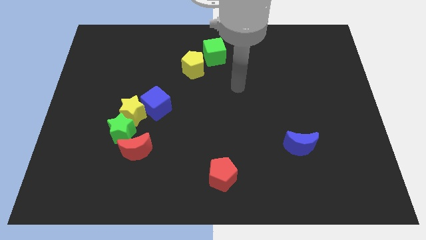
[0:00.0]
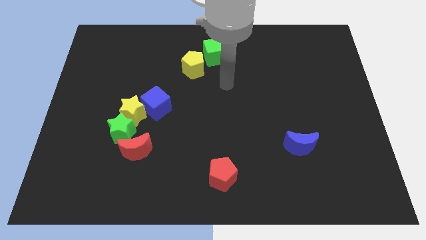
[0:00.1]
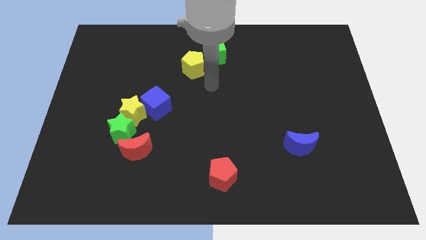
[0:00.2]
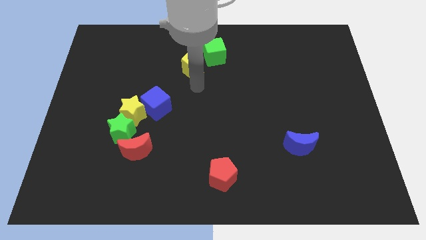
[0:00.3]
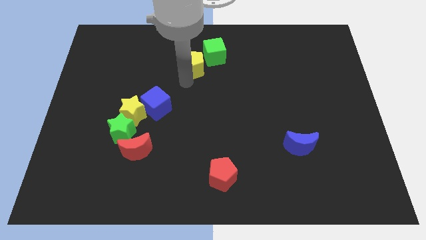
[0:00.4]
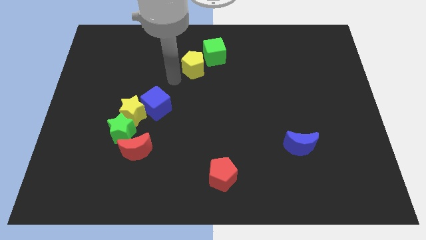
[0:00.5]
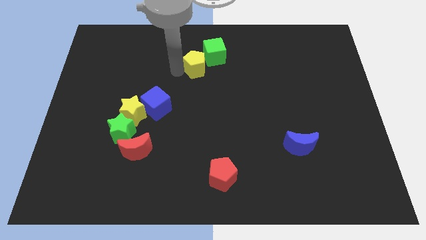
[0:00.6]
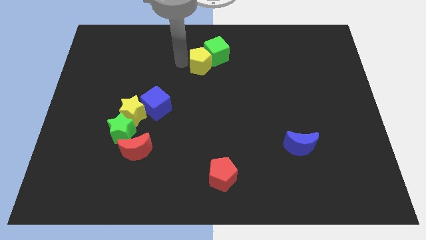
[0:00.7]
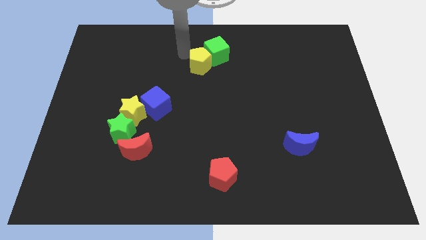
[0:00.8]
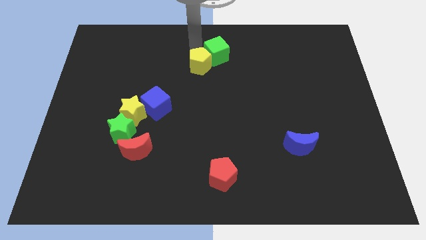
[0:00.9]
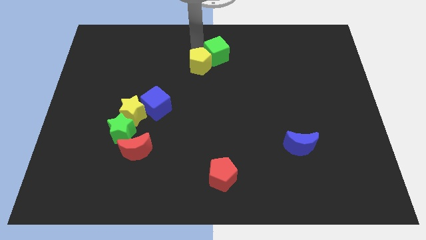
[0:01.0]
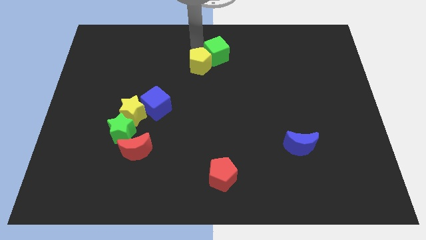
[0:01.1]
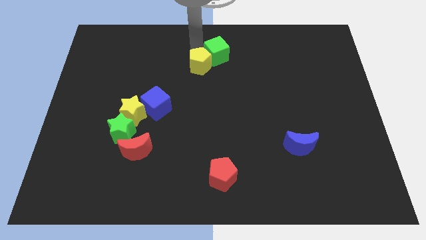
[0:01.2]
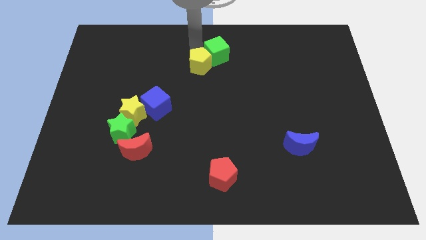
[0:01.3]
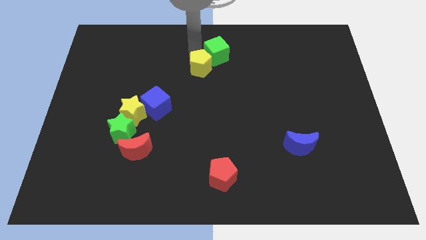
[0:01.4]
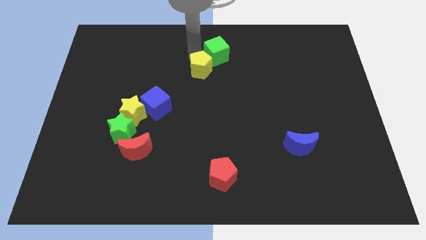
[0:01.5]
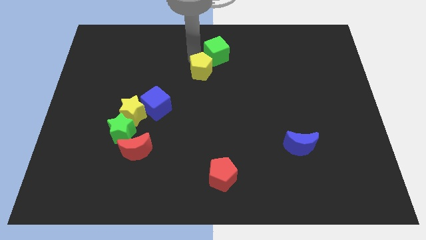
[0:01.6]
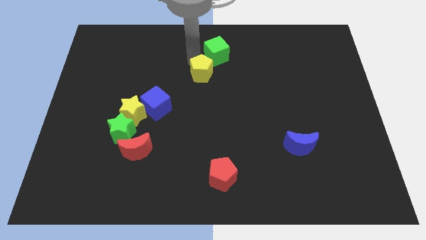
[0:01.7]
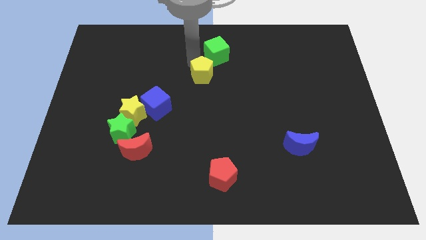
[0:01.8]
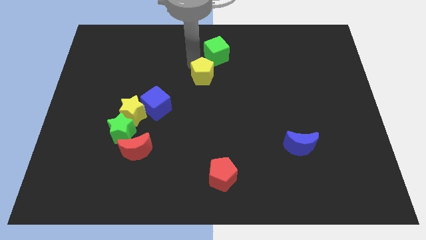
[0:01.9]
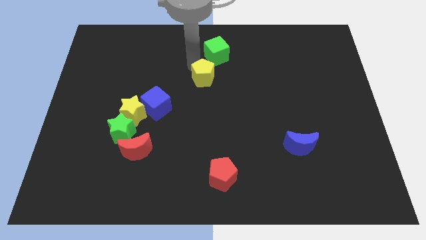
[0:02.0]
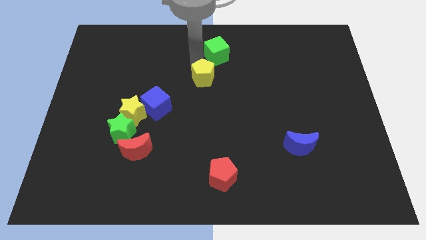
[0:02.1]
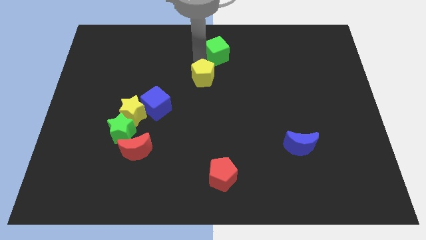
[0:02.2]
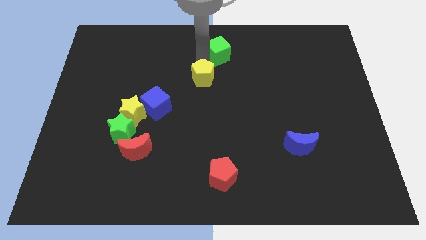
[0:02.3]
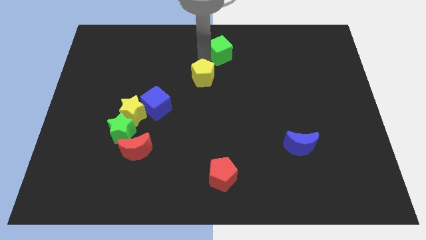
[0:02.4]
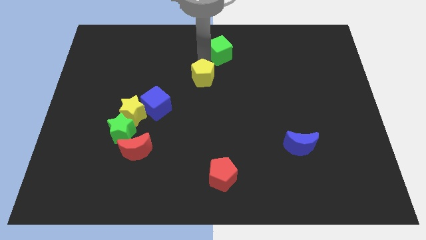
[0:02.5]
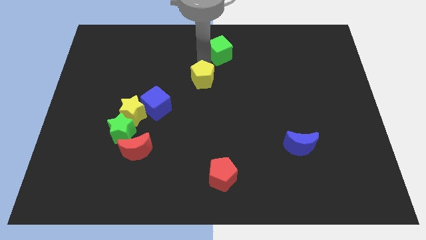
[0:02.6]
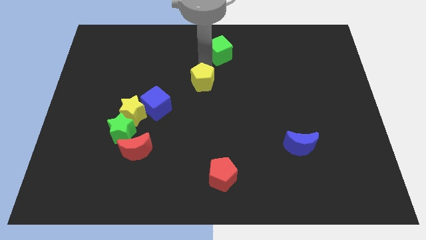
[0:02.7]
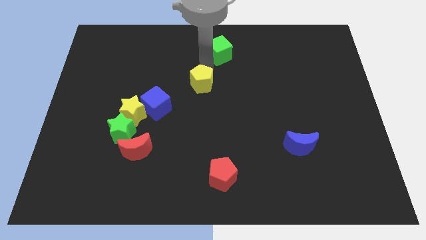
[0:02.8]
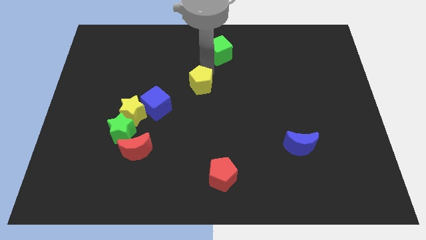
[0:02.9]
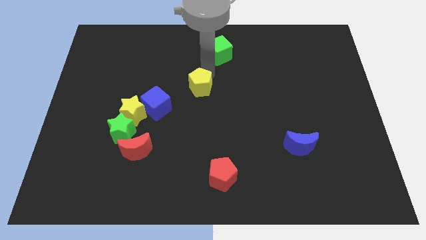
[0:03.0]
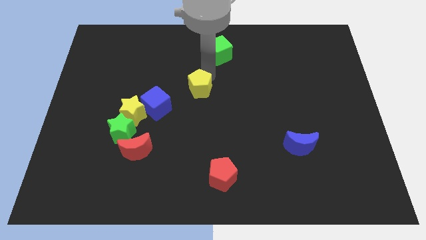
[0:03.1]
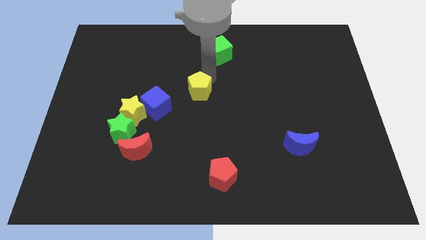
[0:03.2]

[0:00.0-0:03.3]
push the yellow pentagon somewhat down

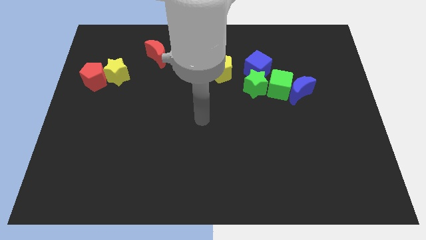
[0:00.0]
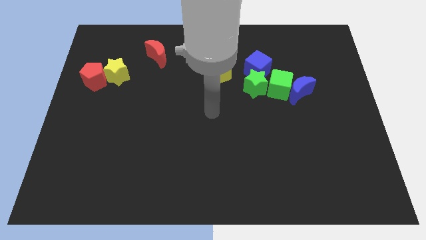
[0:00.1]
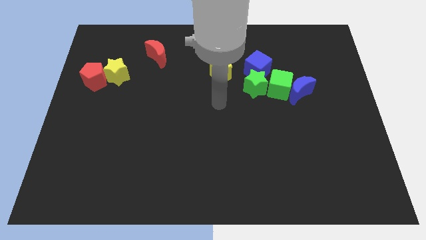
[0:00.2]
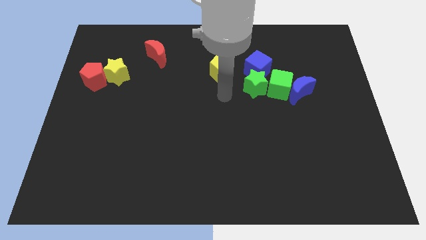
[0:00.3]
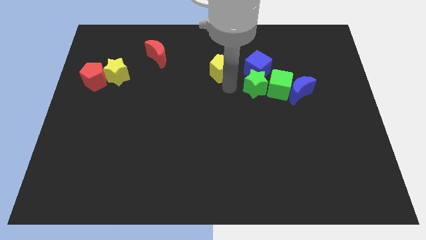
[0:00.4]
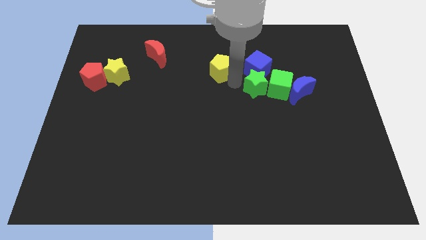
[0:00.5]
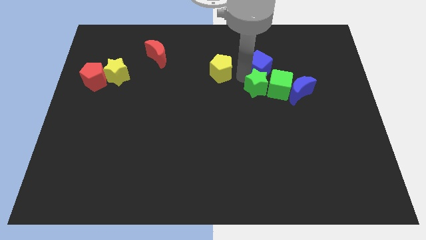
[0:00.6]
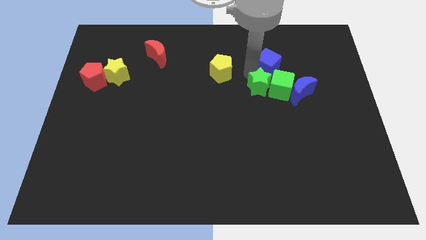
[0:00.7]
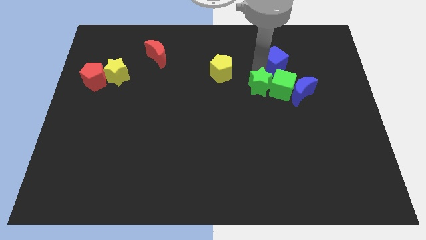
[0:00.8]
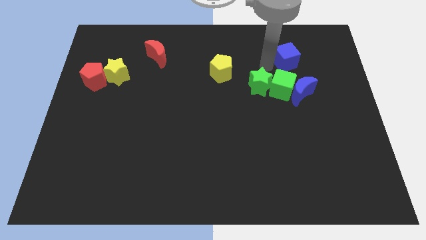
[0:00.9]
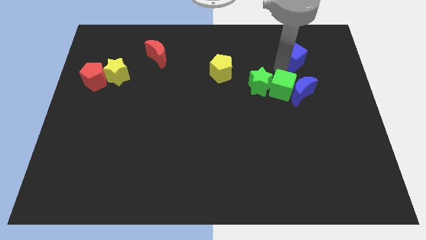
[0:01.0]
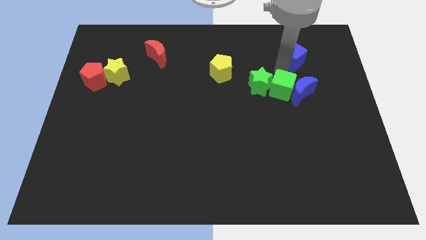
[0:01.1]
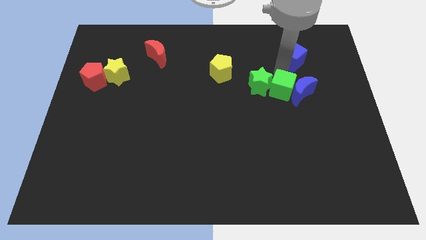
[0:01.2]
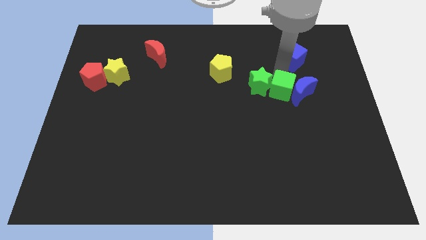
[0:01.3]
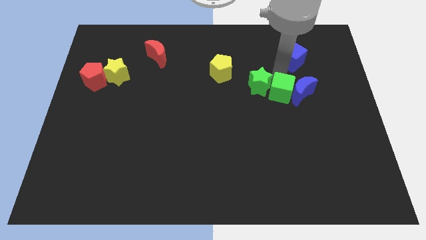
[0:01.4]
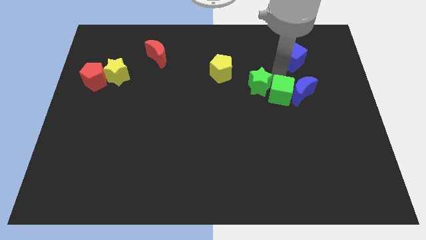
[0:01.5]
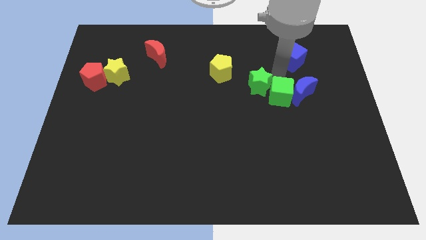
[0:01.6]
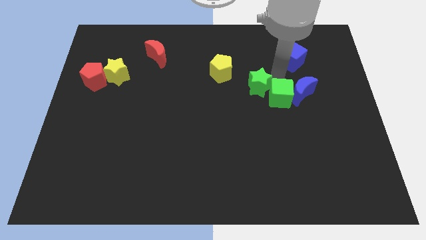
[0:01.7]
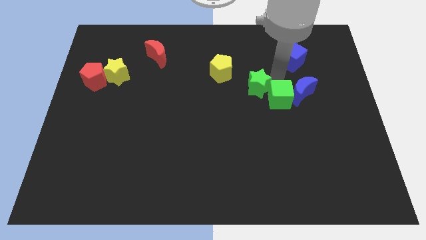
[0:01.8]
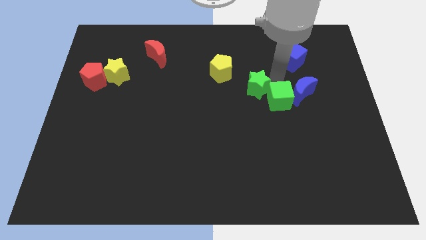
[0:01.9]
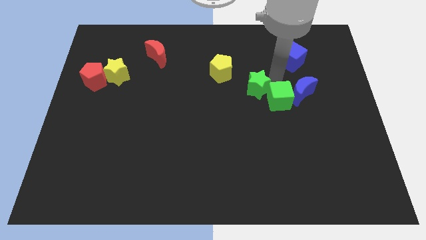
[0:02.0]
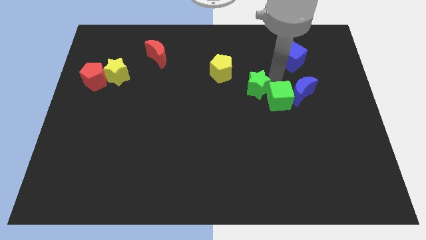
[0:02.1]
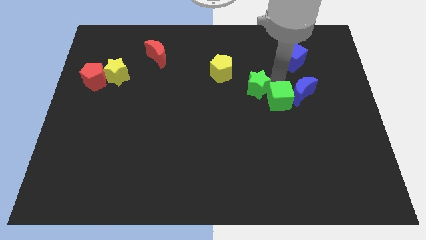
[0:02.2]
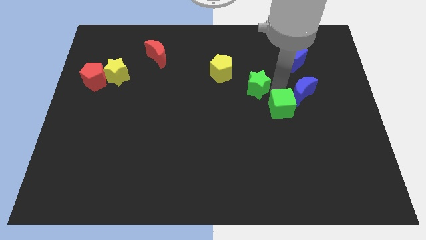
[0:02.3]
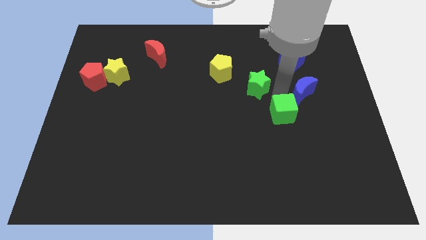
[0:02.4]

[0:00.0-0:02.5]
push the green cube downwards a little bit

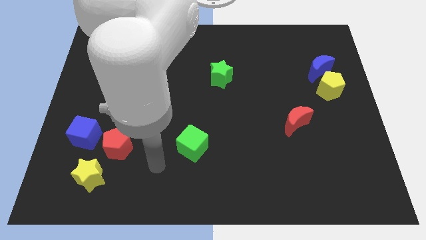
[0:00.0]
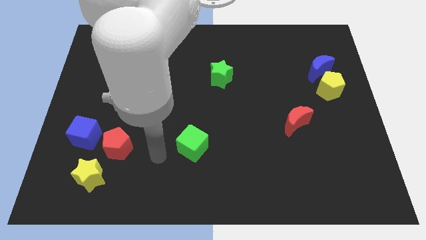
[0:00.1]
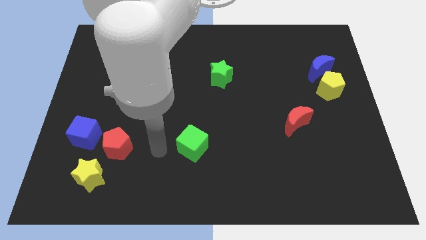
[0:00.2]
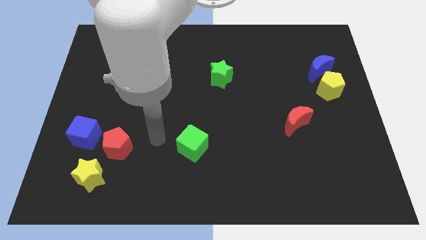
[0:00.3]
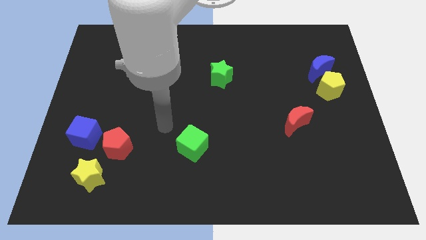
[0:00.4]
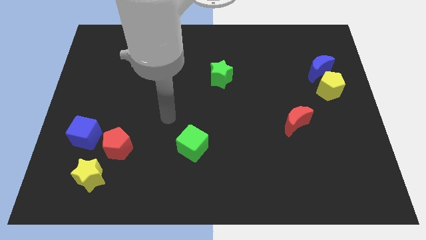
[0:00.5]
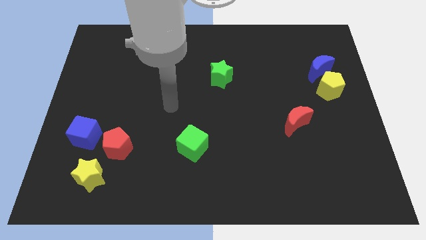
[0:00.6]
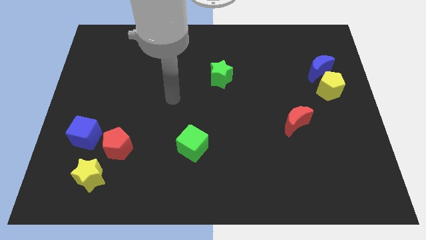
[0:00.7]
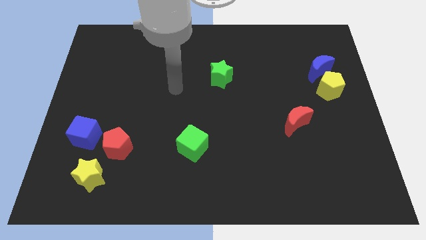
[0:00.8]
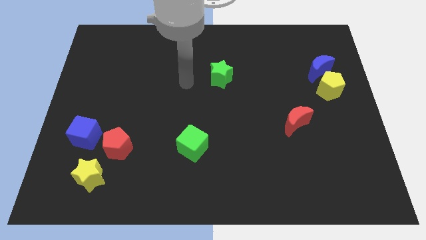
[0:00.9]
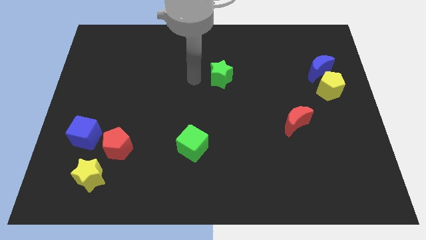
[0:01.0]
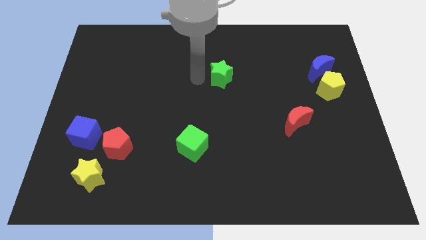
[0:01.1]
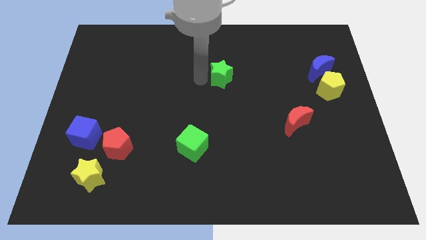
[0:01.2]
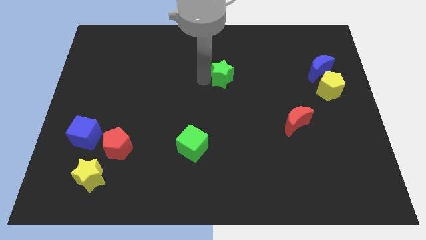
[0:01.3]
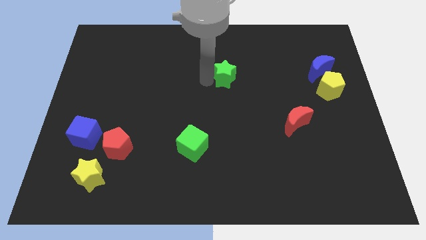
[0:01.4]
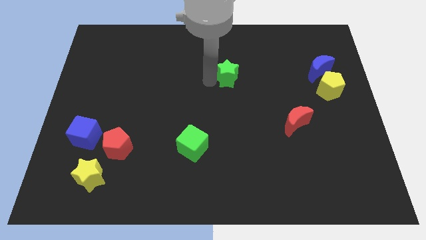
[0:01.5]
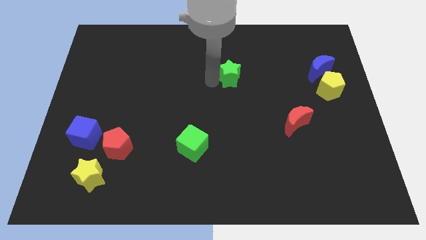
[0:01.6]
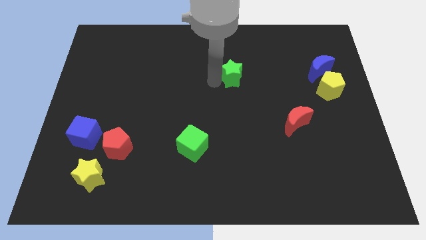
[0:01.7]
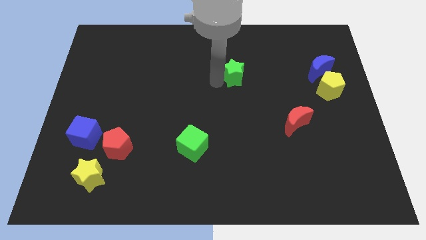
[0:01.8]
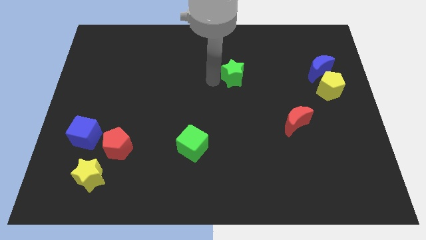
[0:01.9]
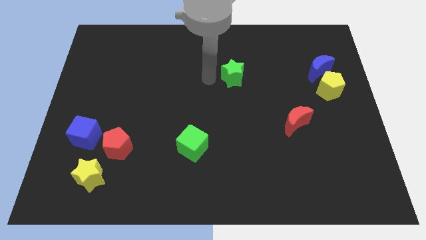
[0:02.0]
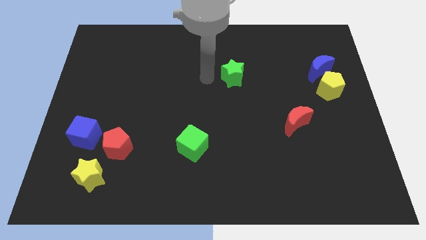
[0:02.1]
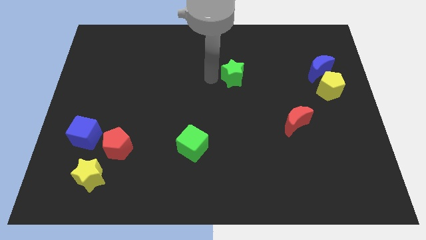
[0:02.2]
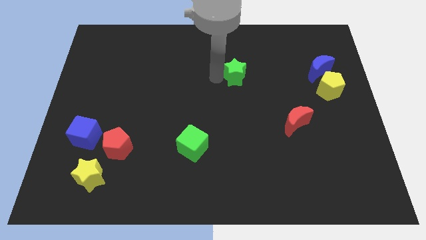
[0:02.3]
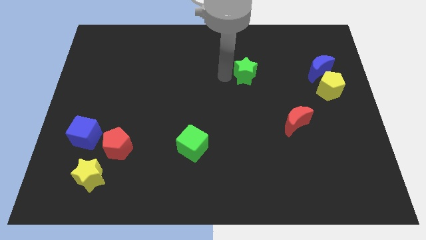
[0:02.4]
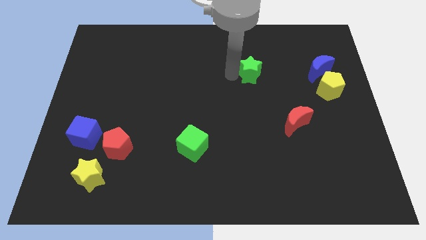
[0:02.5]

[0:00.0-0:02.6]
slide the green star to the right a bit
